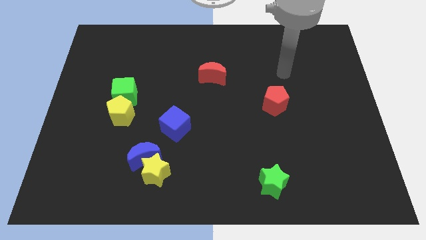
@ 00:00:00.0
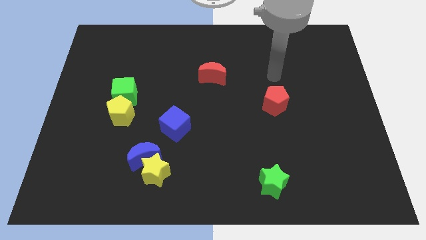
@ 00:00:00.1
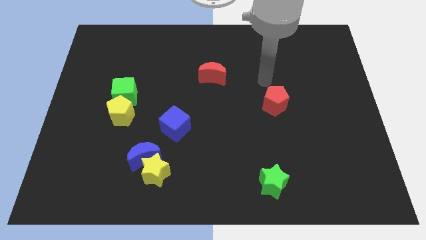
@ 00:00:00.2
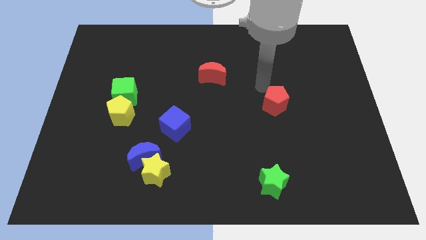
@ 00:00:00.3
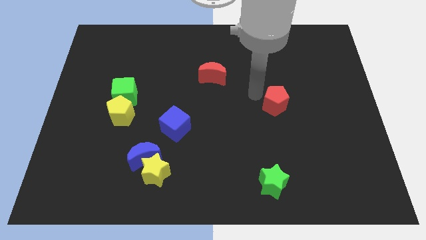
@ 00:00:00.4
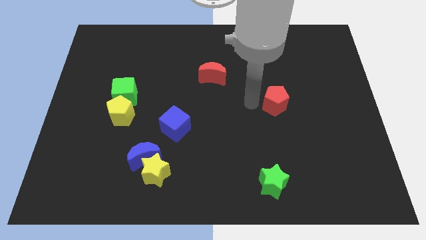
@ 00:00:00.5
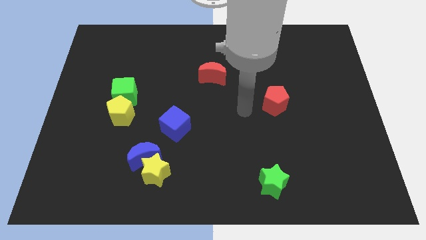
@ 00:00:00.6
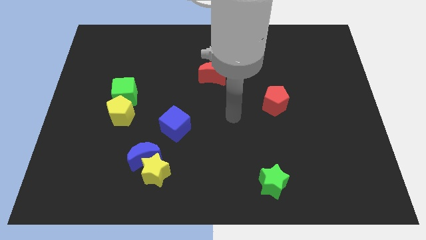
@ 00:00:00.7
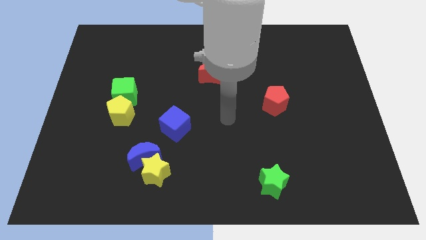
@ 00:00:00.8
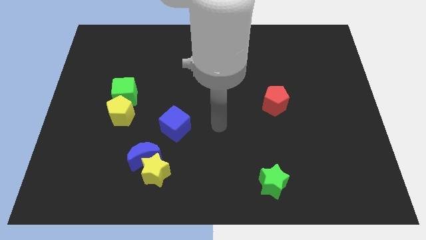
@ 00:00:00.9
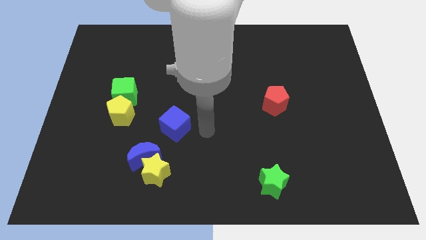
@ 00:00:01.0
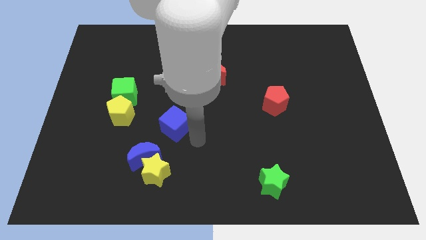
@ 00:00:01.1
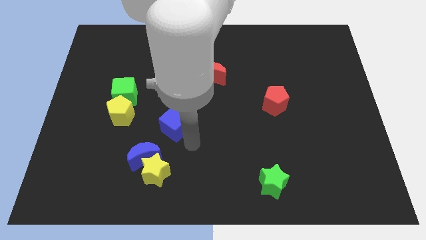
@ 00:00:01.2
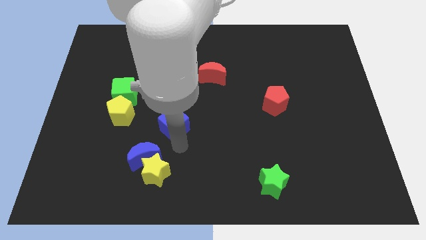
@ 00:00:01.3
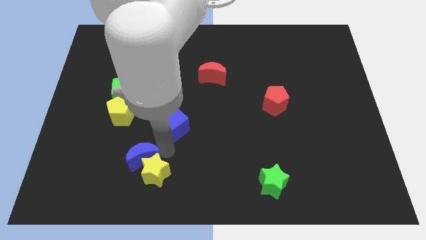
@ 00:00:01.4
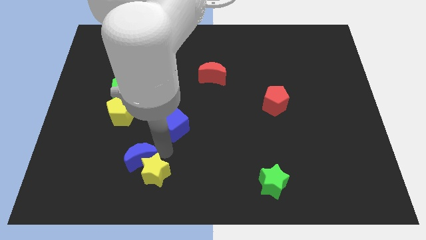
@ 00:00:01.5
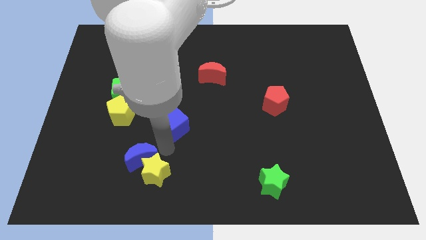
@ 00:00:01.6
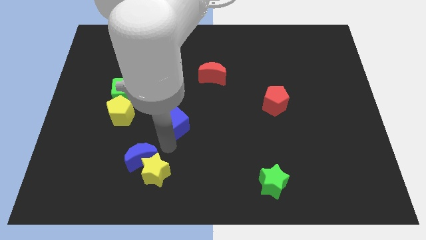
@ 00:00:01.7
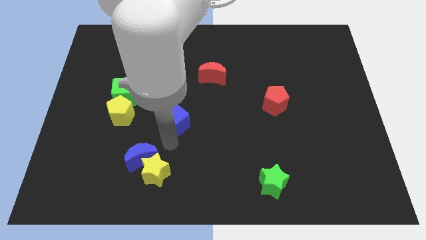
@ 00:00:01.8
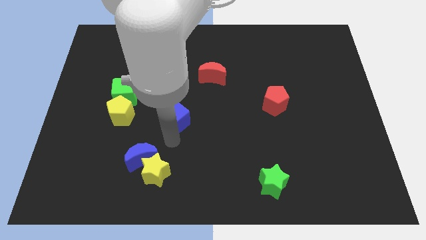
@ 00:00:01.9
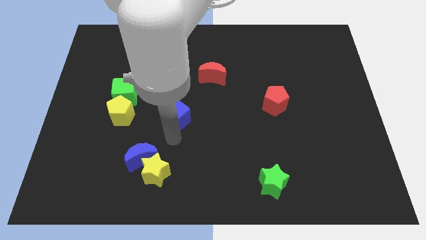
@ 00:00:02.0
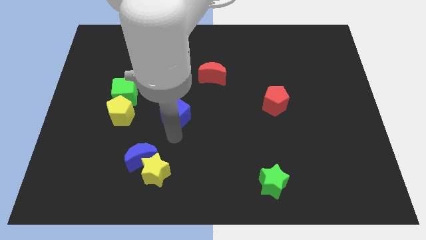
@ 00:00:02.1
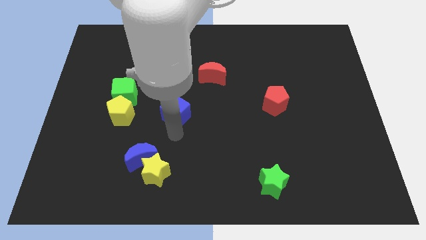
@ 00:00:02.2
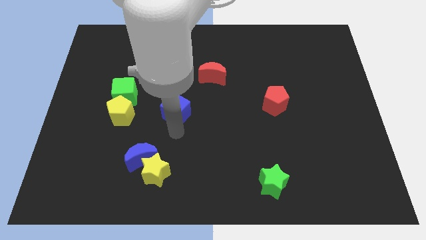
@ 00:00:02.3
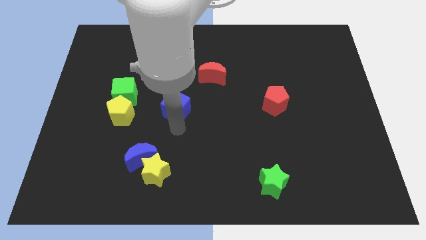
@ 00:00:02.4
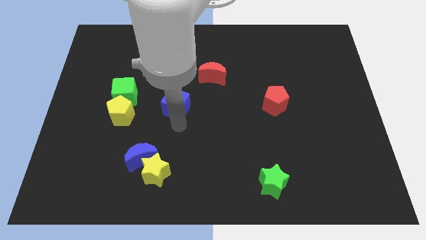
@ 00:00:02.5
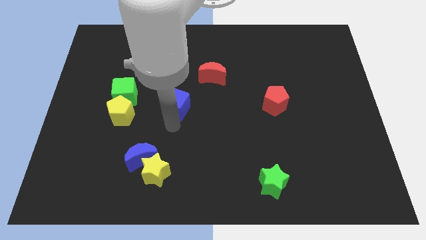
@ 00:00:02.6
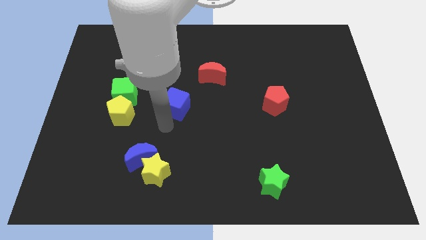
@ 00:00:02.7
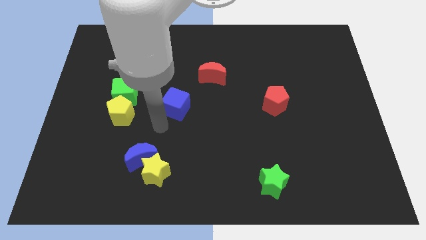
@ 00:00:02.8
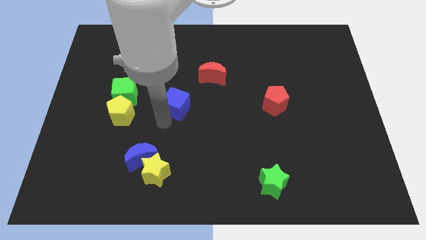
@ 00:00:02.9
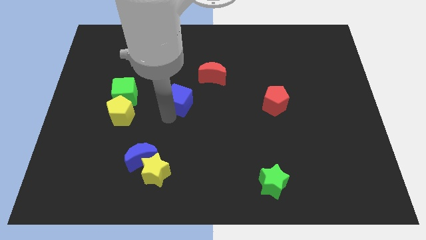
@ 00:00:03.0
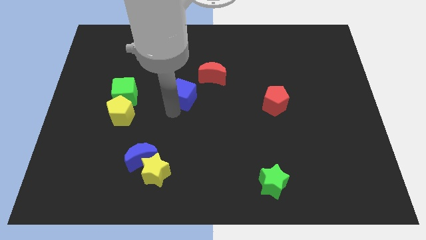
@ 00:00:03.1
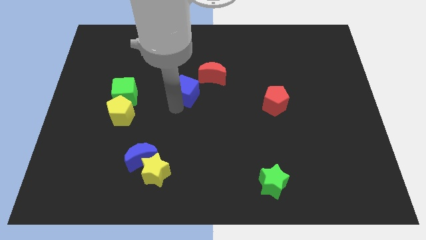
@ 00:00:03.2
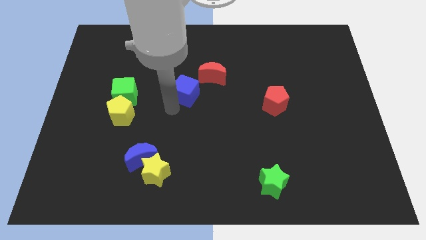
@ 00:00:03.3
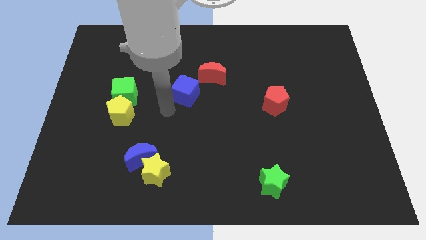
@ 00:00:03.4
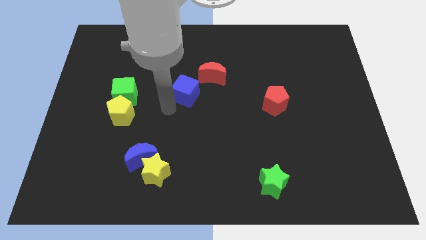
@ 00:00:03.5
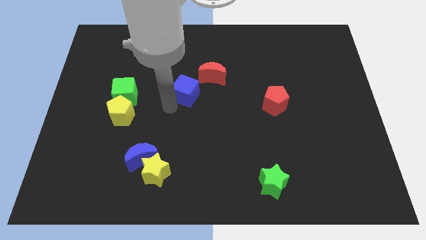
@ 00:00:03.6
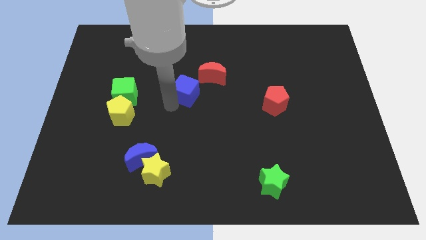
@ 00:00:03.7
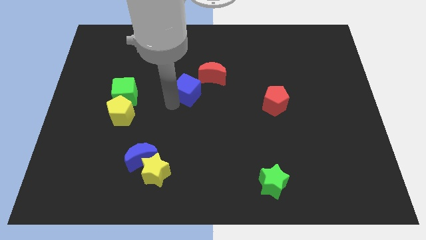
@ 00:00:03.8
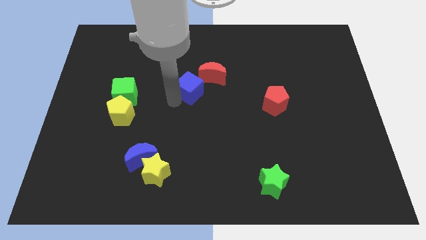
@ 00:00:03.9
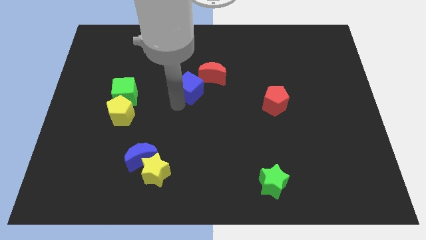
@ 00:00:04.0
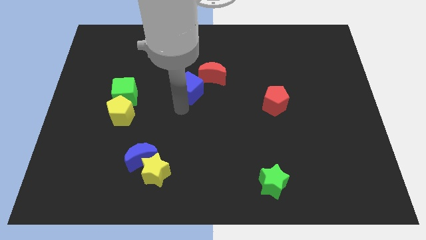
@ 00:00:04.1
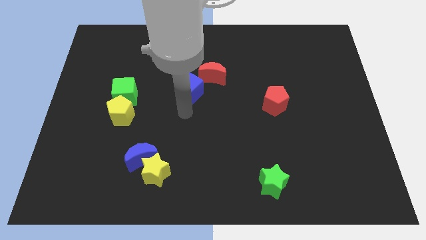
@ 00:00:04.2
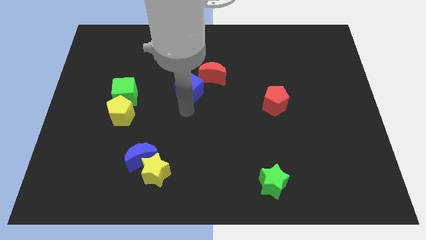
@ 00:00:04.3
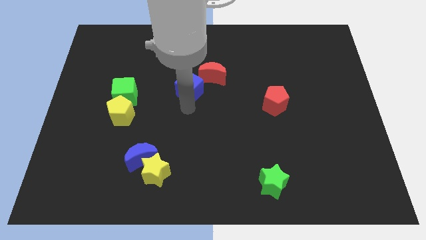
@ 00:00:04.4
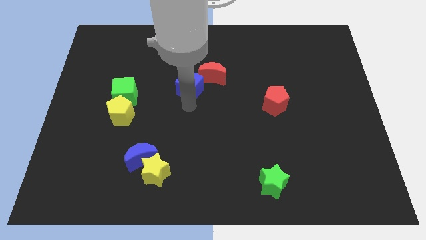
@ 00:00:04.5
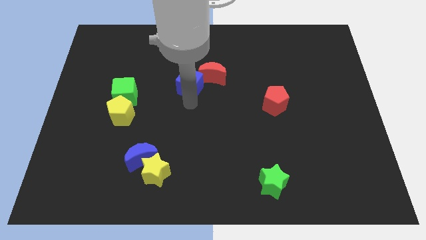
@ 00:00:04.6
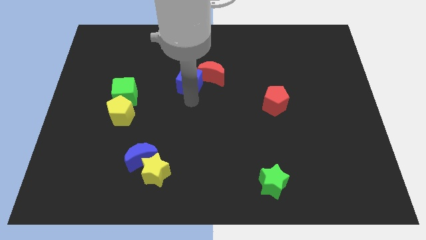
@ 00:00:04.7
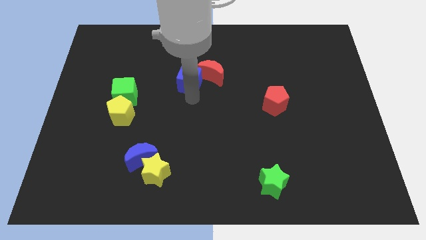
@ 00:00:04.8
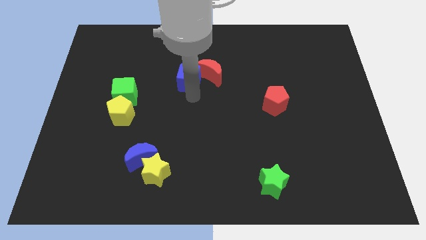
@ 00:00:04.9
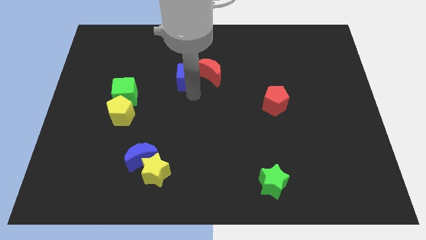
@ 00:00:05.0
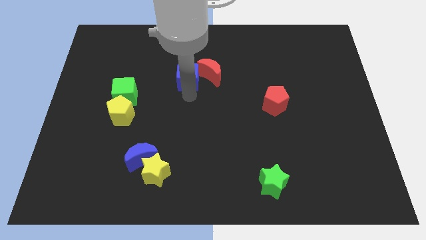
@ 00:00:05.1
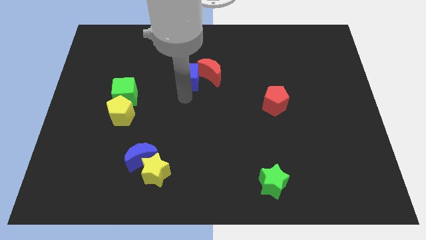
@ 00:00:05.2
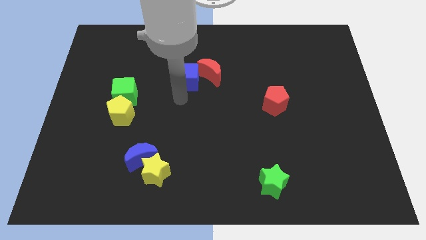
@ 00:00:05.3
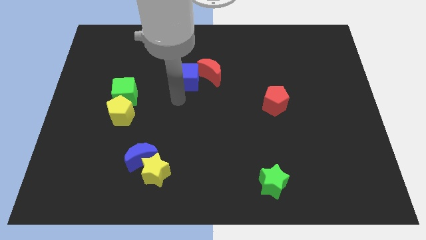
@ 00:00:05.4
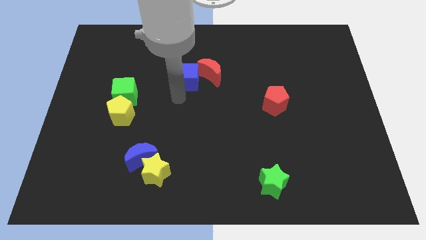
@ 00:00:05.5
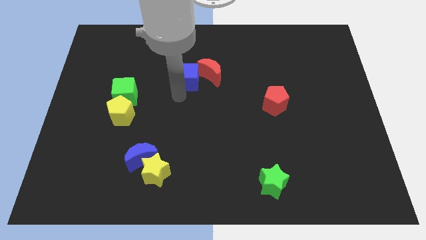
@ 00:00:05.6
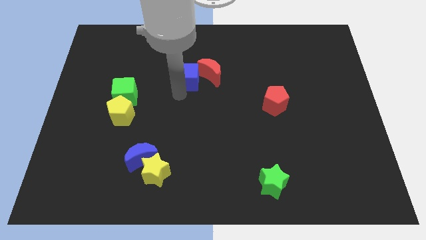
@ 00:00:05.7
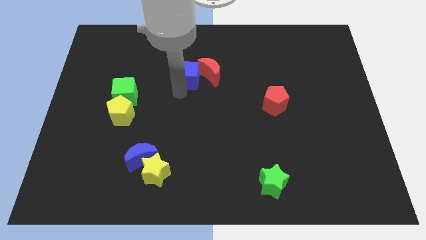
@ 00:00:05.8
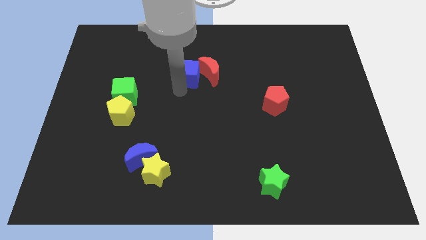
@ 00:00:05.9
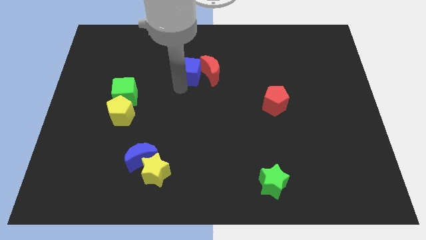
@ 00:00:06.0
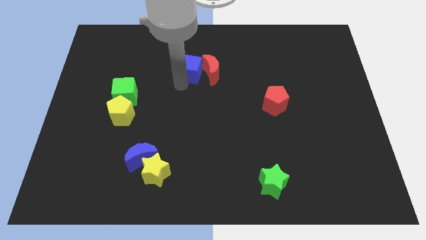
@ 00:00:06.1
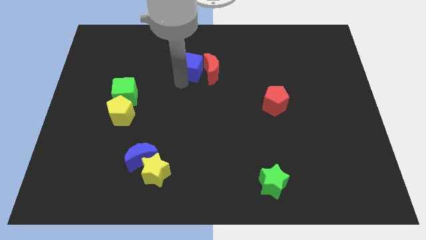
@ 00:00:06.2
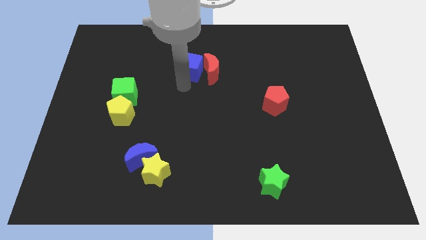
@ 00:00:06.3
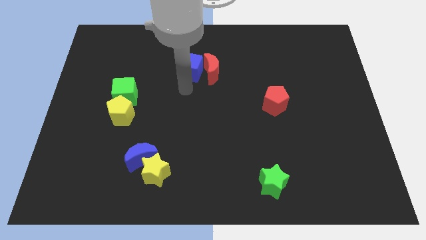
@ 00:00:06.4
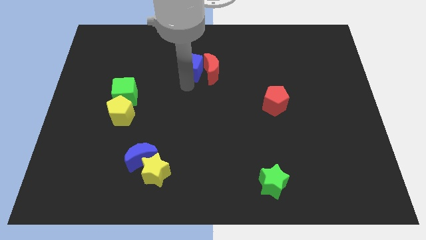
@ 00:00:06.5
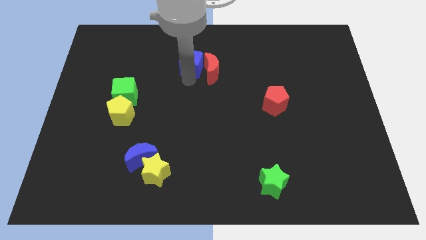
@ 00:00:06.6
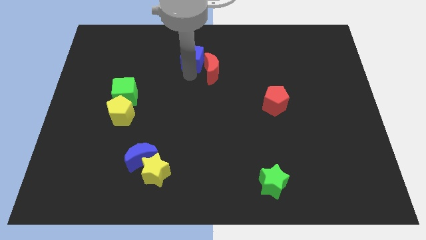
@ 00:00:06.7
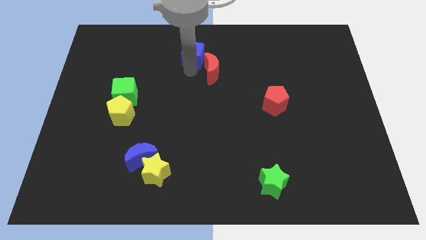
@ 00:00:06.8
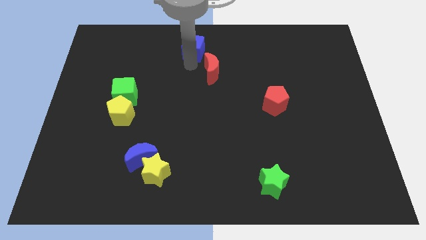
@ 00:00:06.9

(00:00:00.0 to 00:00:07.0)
slide the blue cube to the top
